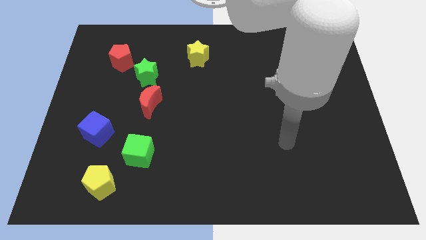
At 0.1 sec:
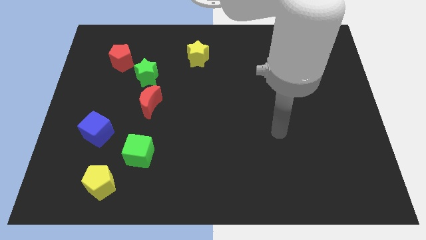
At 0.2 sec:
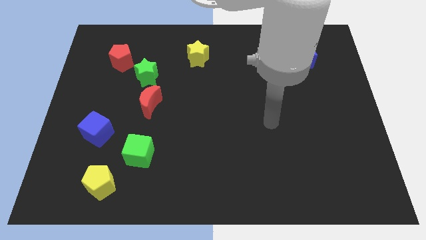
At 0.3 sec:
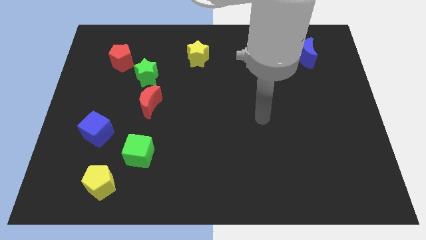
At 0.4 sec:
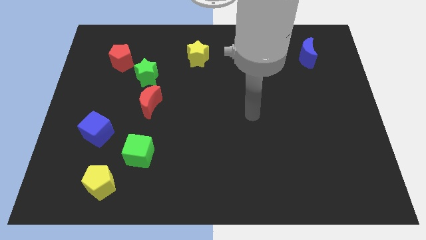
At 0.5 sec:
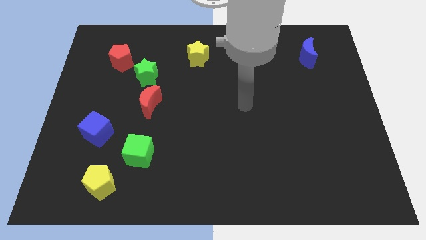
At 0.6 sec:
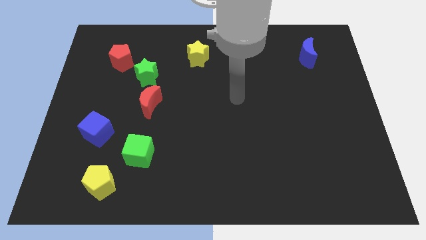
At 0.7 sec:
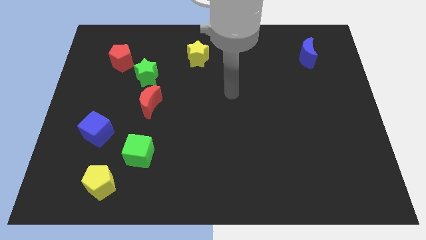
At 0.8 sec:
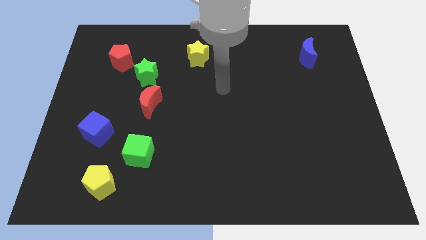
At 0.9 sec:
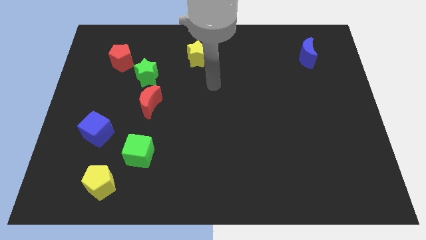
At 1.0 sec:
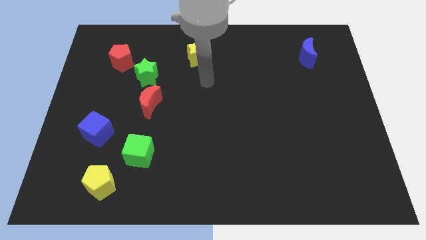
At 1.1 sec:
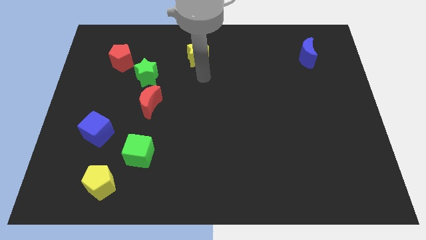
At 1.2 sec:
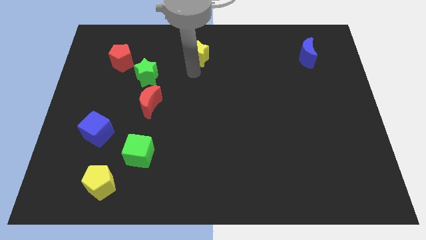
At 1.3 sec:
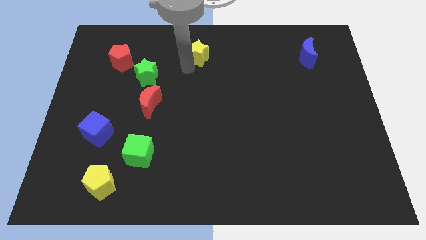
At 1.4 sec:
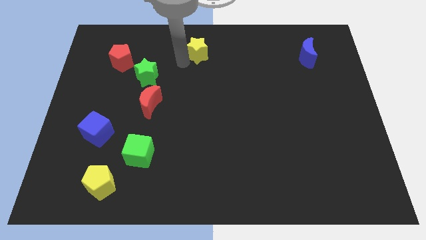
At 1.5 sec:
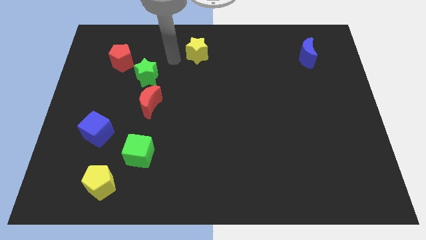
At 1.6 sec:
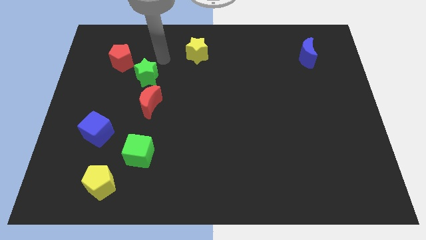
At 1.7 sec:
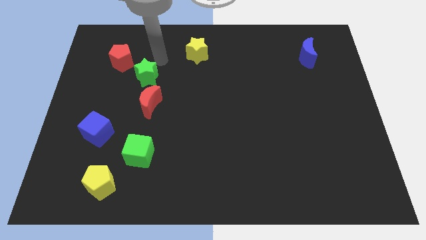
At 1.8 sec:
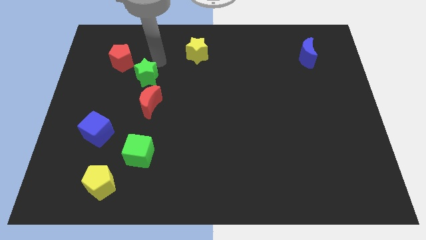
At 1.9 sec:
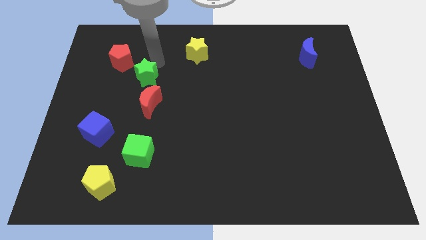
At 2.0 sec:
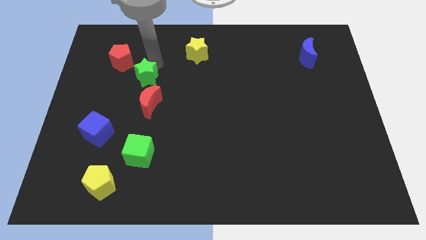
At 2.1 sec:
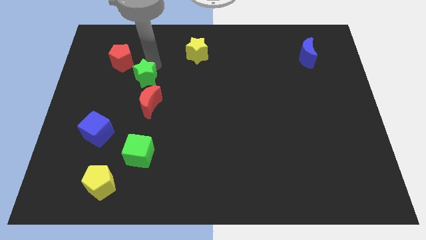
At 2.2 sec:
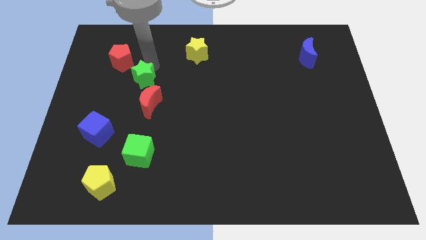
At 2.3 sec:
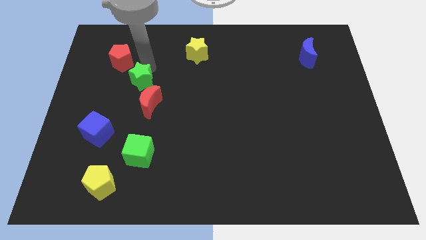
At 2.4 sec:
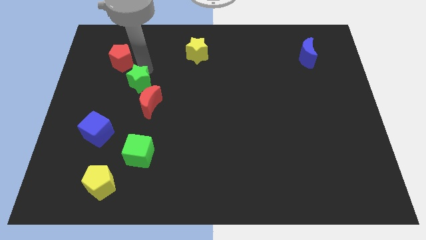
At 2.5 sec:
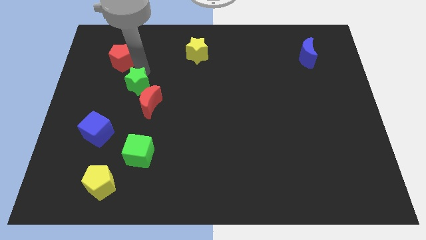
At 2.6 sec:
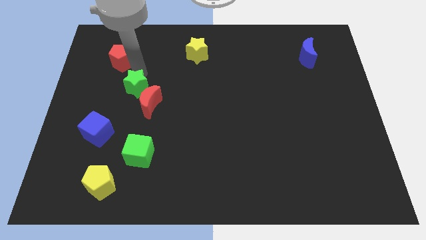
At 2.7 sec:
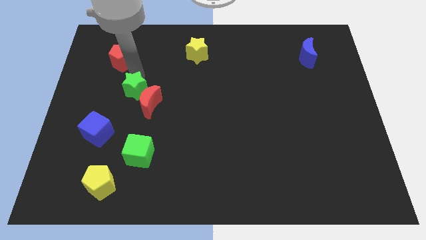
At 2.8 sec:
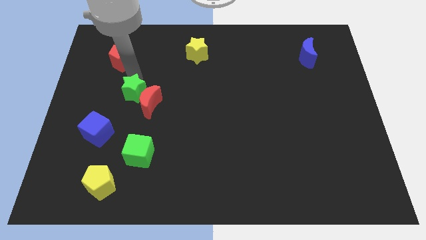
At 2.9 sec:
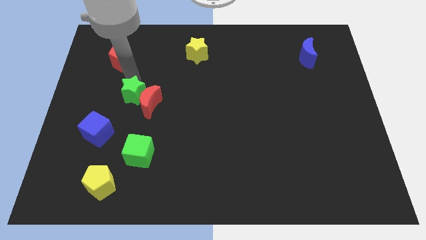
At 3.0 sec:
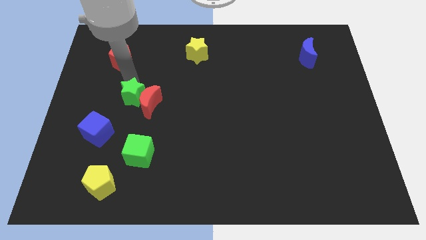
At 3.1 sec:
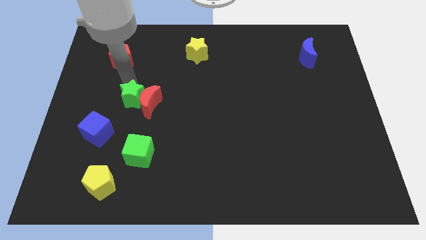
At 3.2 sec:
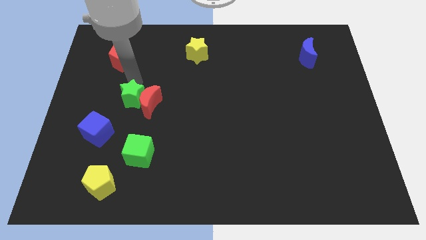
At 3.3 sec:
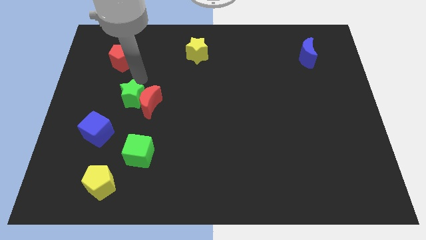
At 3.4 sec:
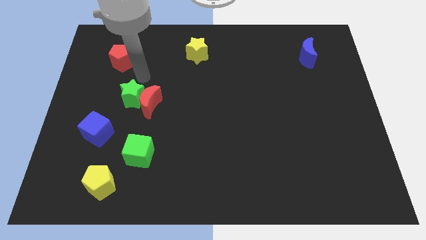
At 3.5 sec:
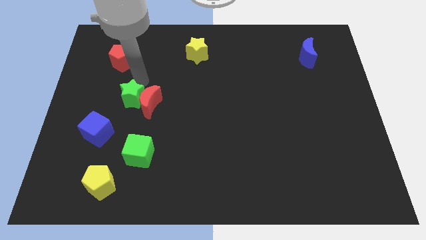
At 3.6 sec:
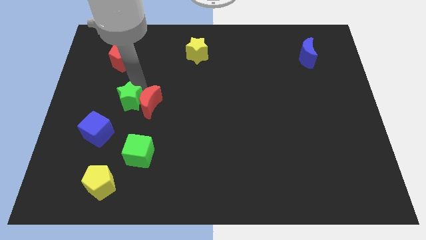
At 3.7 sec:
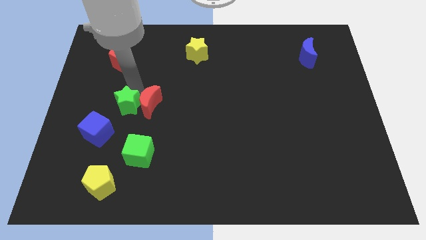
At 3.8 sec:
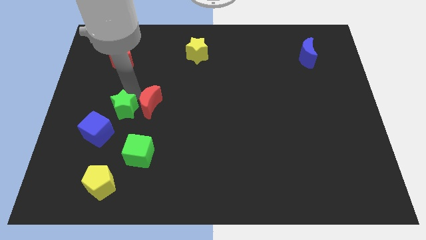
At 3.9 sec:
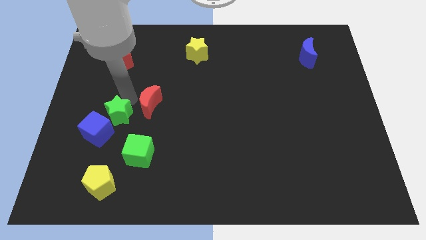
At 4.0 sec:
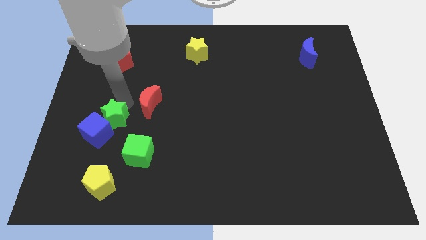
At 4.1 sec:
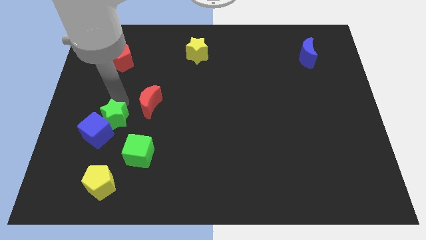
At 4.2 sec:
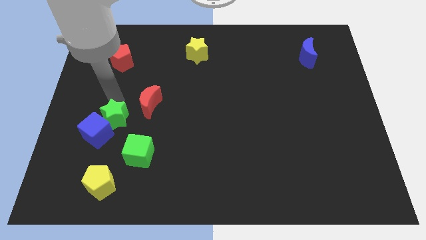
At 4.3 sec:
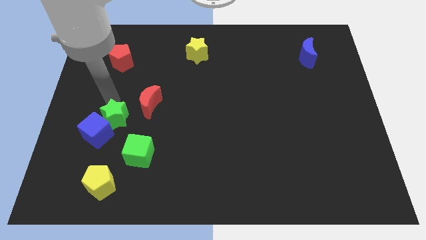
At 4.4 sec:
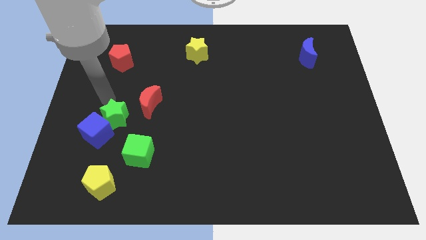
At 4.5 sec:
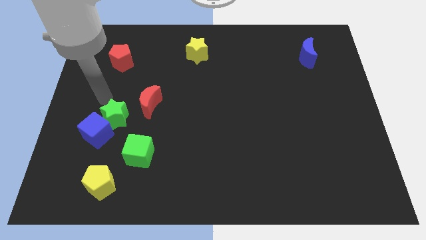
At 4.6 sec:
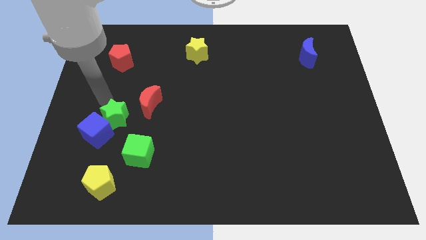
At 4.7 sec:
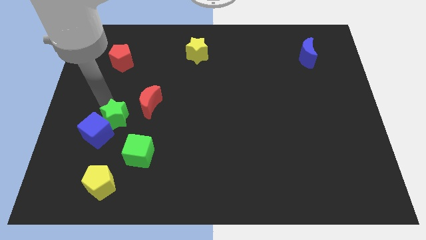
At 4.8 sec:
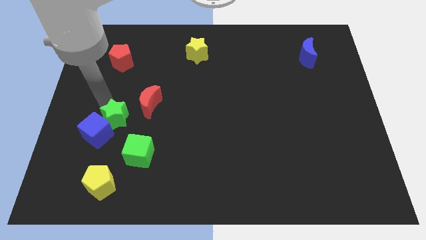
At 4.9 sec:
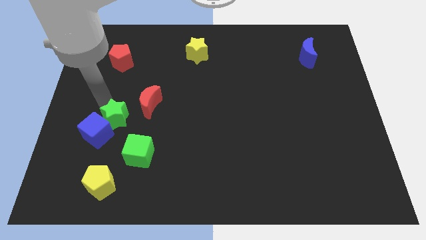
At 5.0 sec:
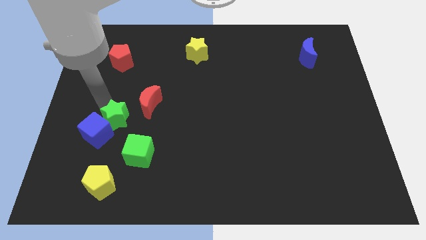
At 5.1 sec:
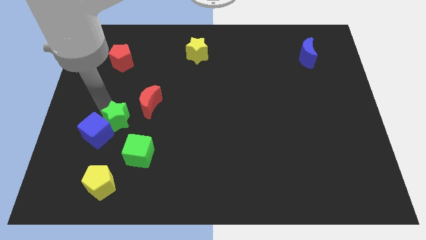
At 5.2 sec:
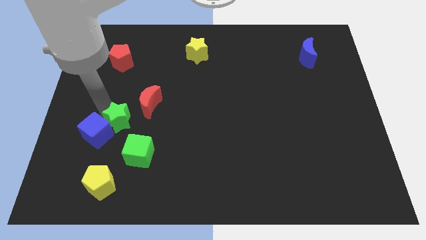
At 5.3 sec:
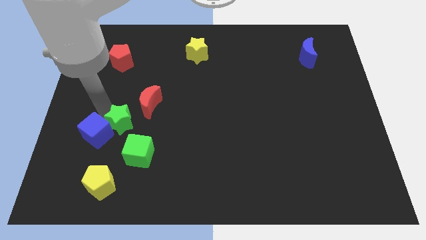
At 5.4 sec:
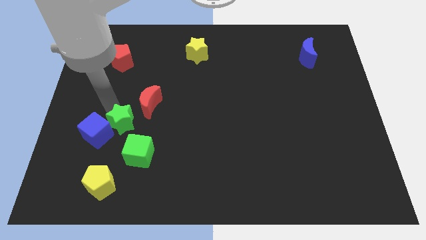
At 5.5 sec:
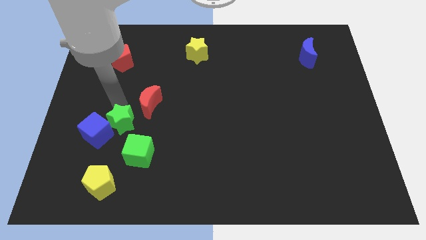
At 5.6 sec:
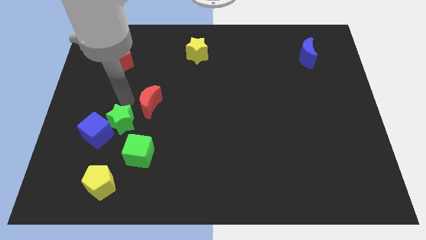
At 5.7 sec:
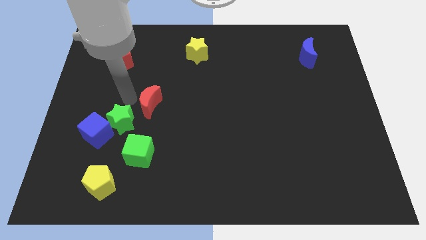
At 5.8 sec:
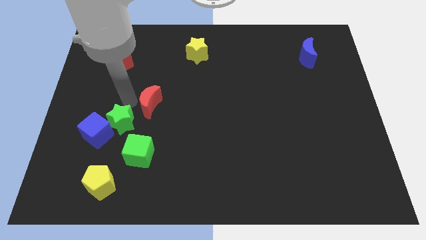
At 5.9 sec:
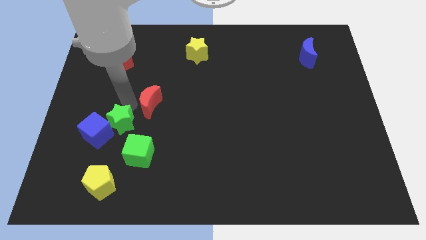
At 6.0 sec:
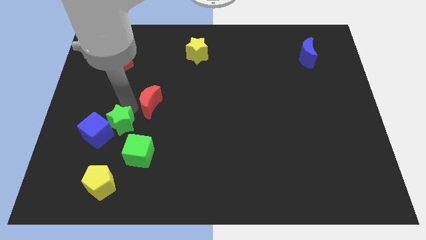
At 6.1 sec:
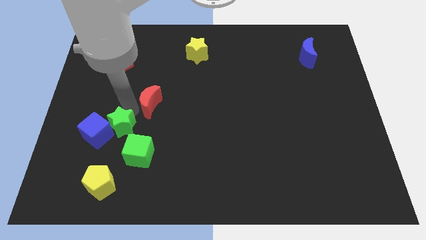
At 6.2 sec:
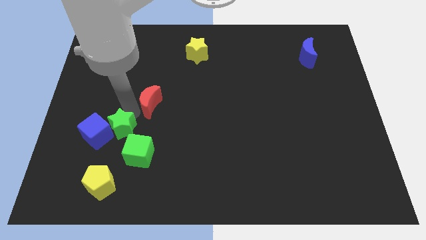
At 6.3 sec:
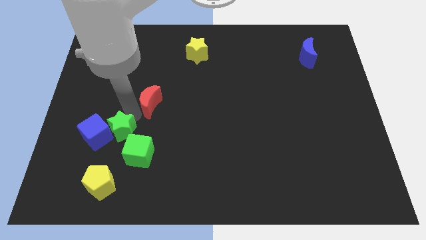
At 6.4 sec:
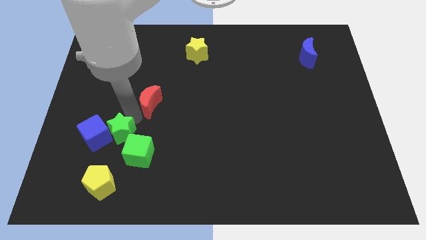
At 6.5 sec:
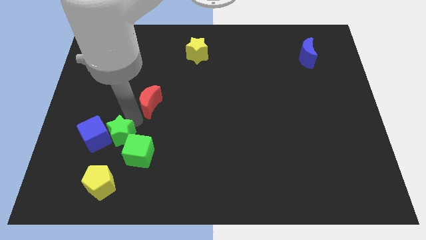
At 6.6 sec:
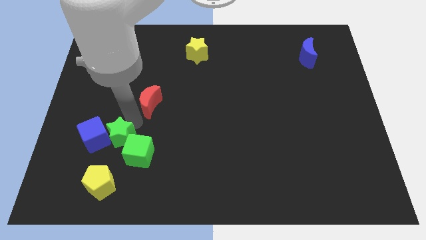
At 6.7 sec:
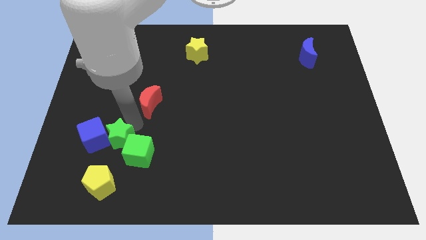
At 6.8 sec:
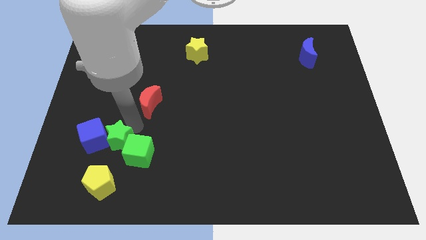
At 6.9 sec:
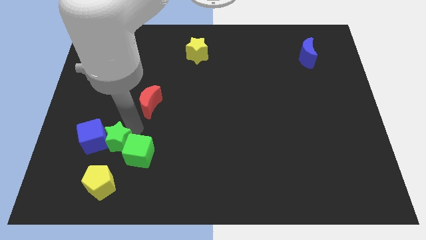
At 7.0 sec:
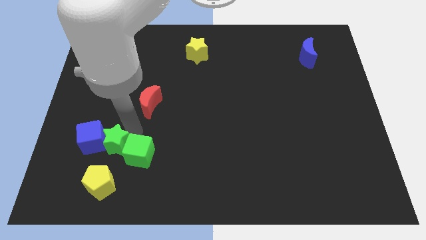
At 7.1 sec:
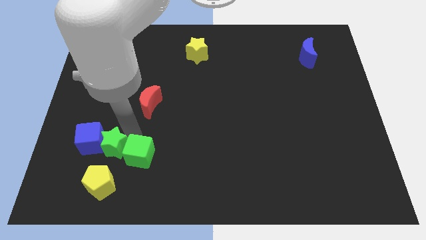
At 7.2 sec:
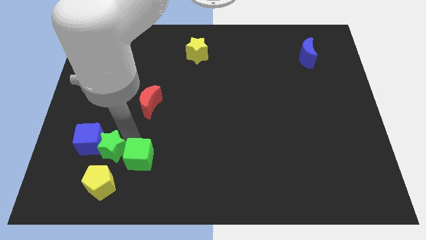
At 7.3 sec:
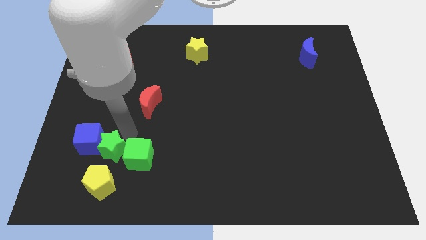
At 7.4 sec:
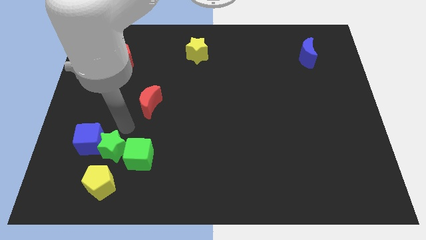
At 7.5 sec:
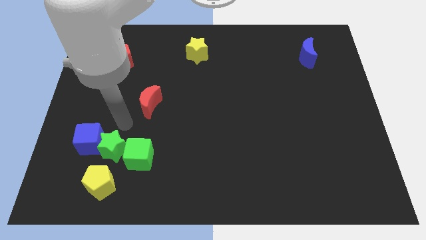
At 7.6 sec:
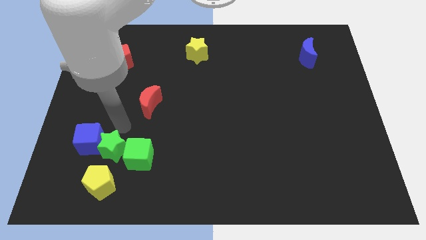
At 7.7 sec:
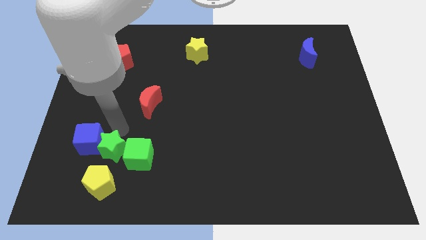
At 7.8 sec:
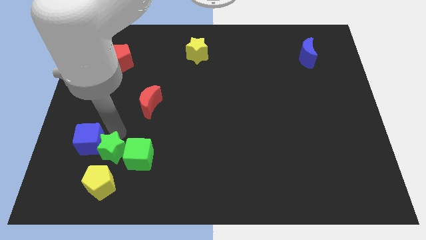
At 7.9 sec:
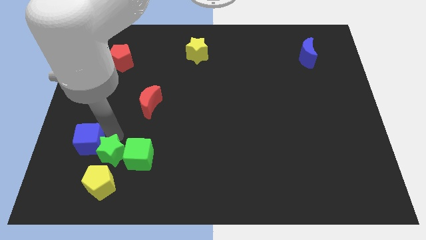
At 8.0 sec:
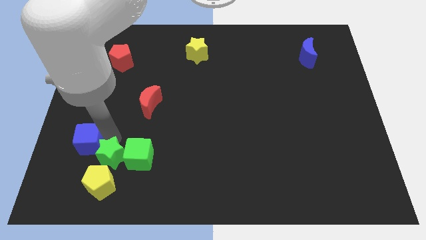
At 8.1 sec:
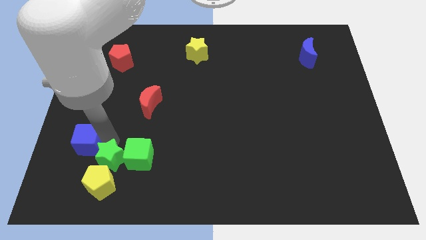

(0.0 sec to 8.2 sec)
move the green star next to the yellow pentagon
